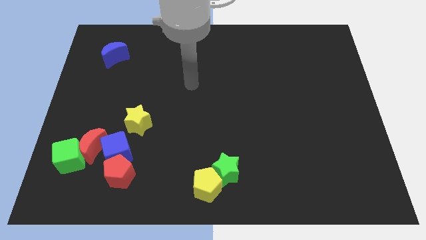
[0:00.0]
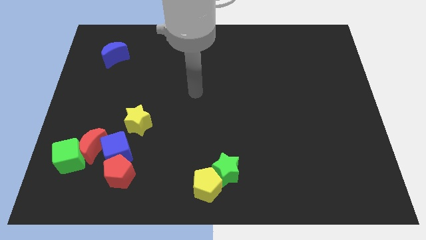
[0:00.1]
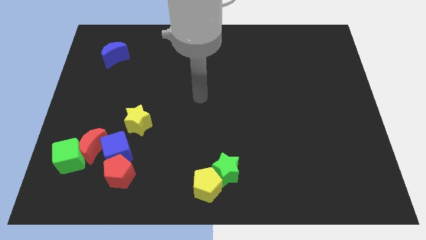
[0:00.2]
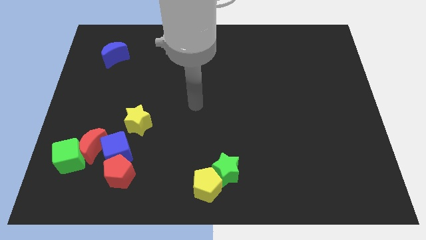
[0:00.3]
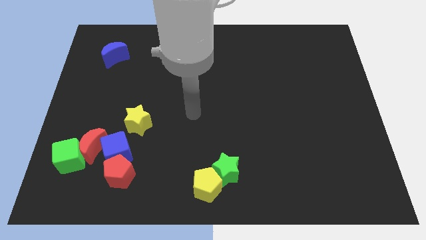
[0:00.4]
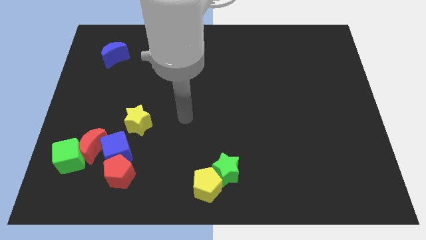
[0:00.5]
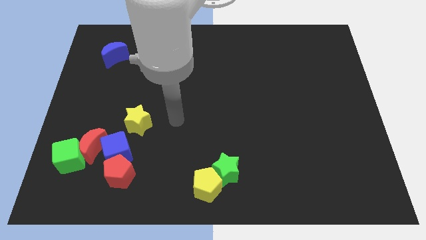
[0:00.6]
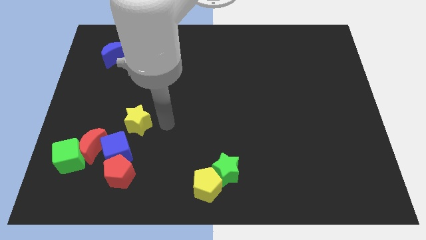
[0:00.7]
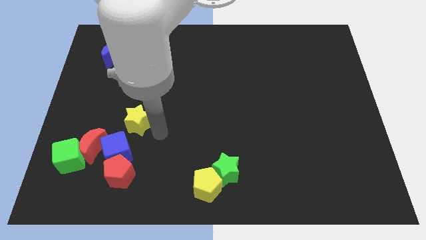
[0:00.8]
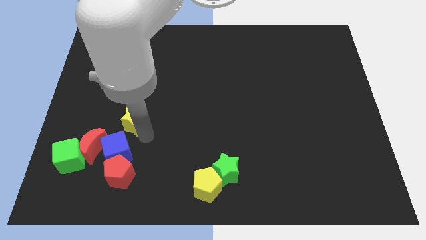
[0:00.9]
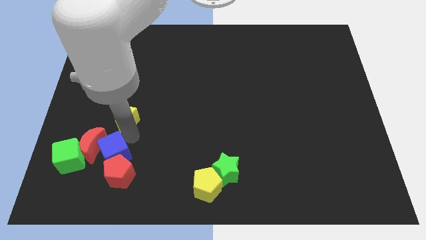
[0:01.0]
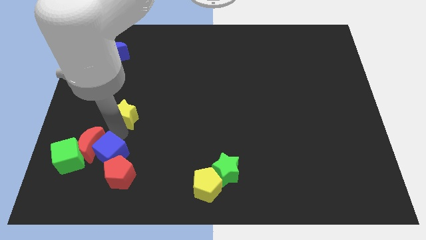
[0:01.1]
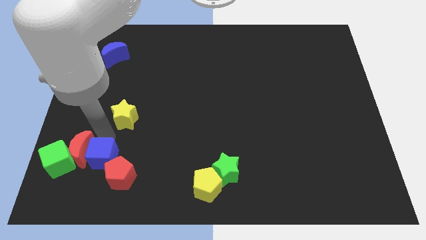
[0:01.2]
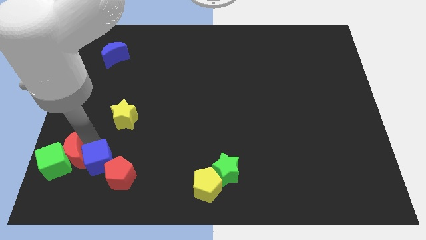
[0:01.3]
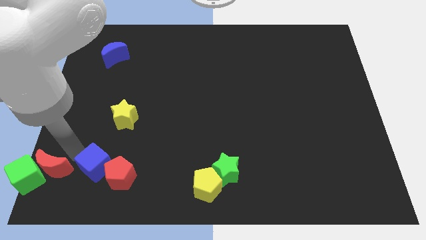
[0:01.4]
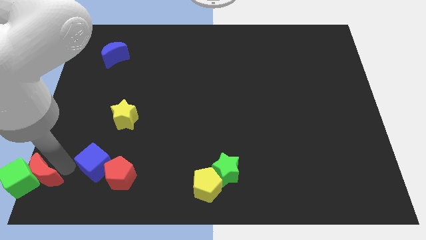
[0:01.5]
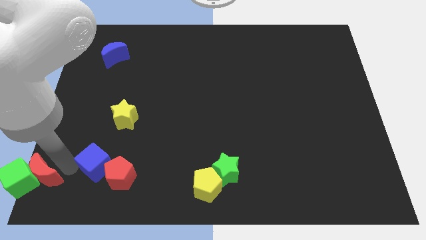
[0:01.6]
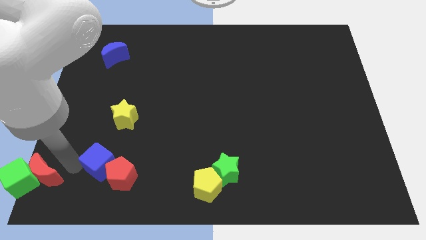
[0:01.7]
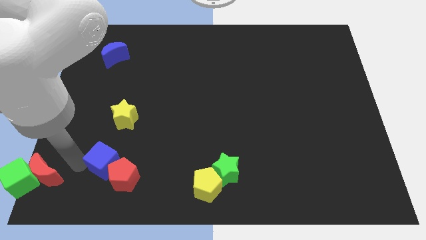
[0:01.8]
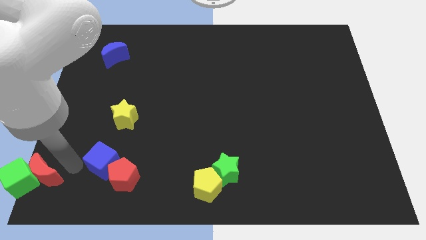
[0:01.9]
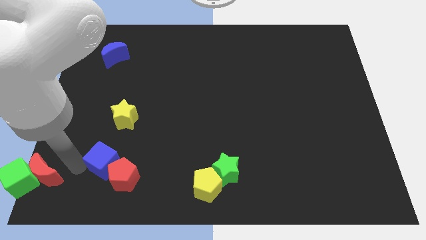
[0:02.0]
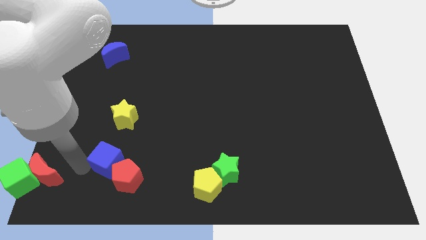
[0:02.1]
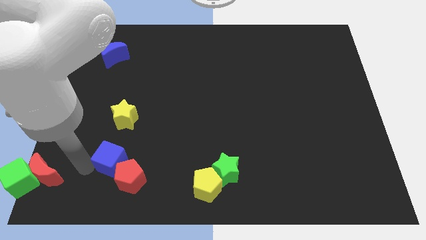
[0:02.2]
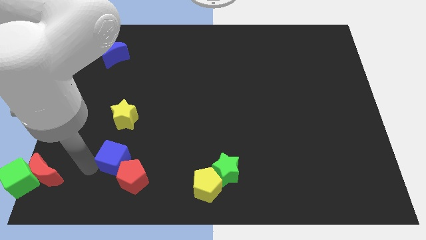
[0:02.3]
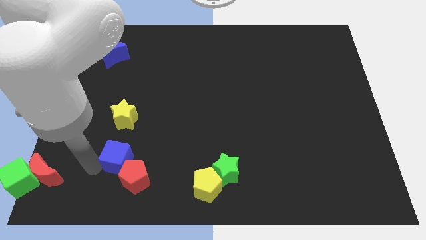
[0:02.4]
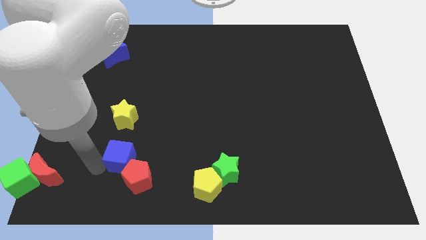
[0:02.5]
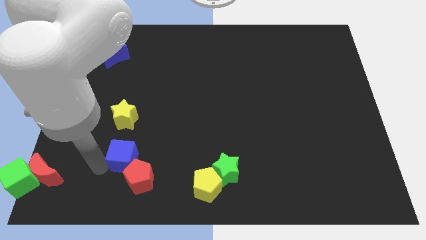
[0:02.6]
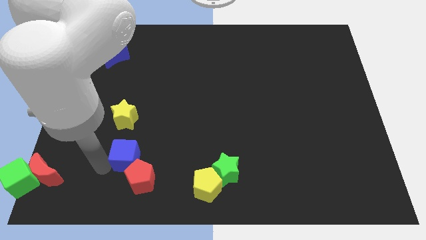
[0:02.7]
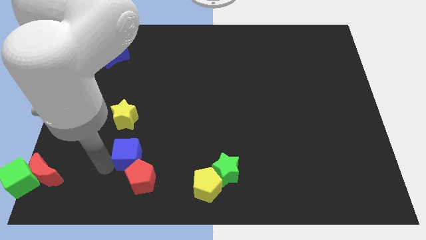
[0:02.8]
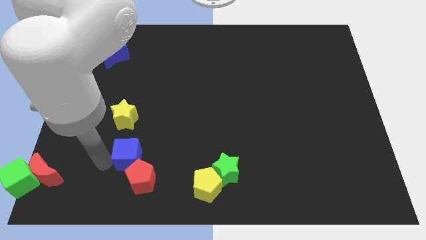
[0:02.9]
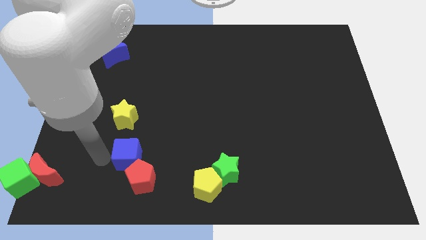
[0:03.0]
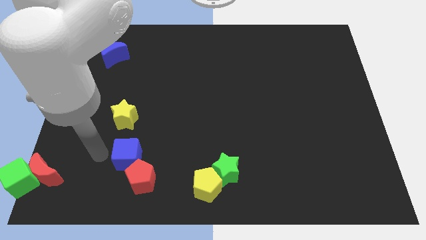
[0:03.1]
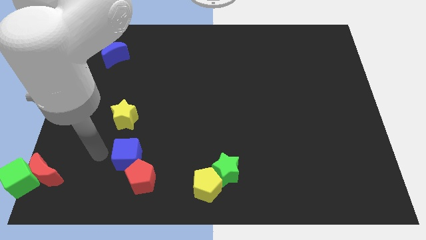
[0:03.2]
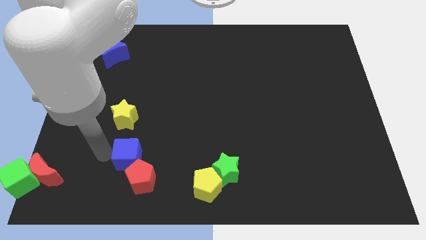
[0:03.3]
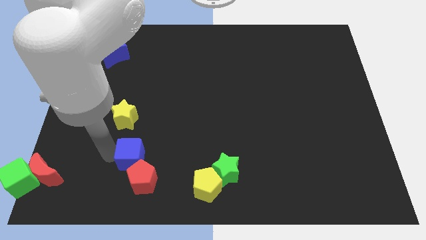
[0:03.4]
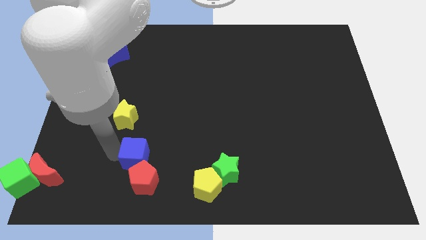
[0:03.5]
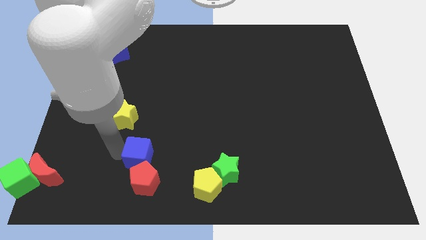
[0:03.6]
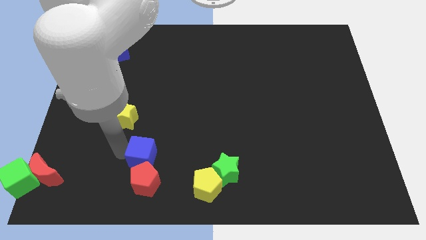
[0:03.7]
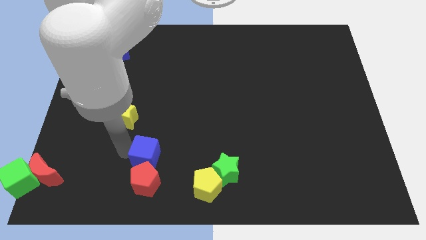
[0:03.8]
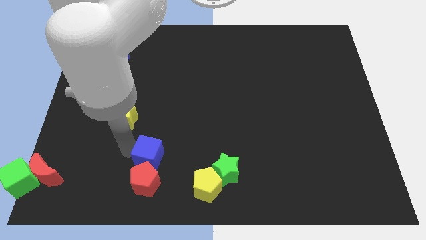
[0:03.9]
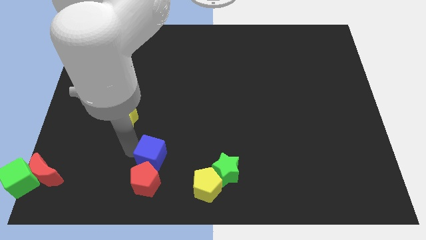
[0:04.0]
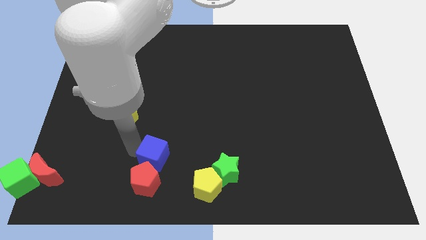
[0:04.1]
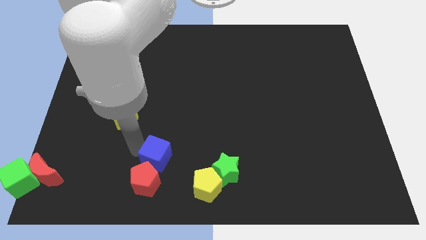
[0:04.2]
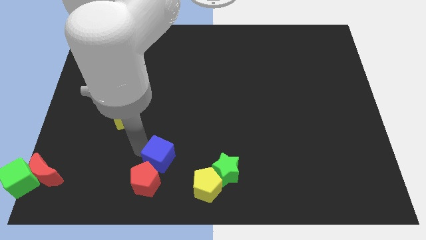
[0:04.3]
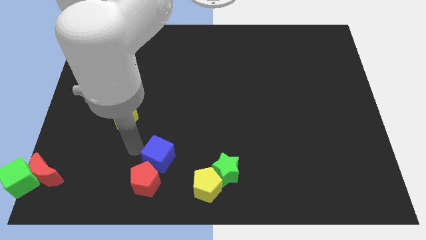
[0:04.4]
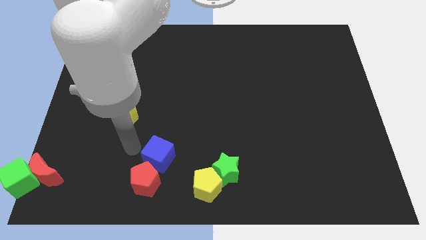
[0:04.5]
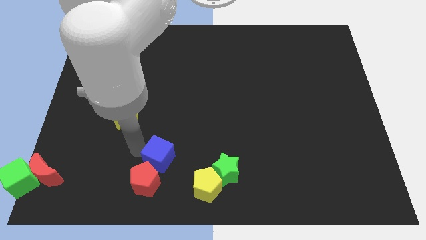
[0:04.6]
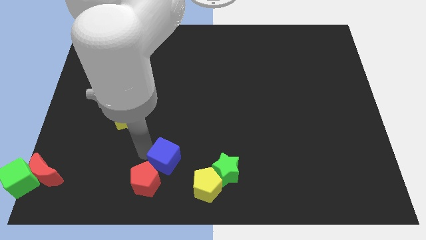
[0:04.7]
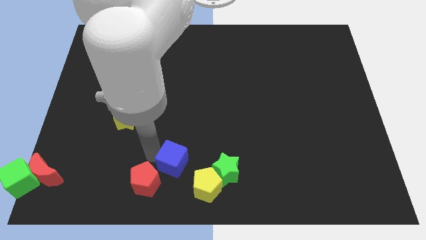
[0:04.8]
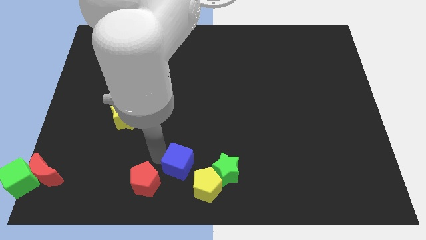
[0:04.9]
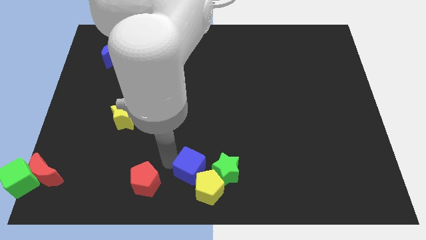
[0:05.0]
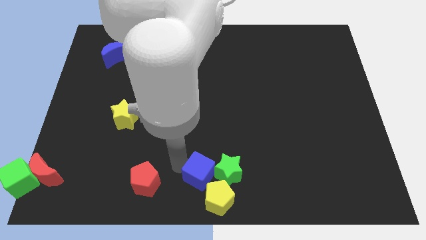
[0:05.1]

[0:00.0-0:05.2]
push the blue cube close to the green star

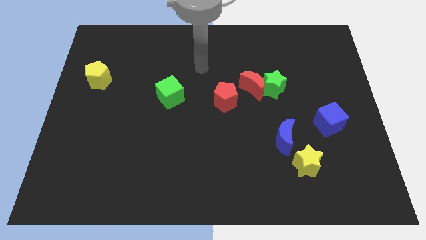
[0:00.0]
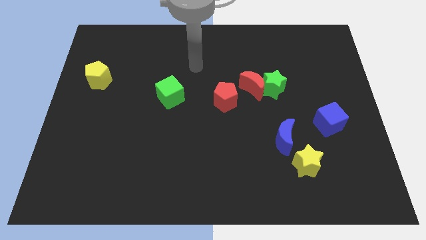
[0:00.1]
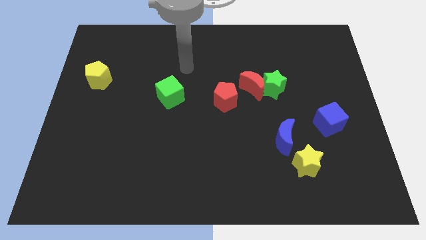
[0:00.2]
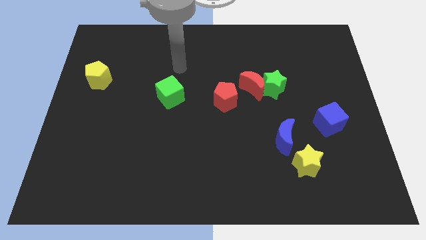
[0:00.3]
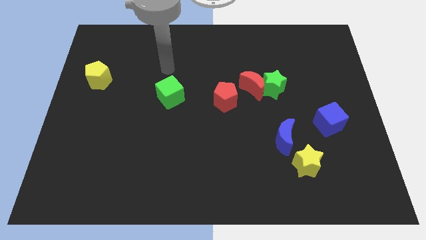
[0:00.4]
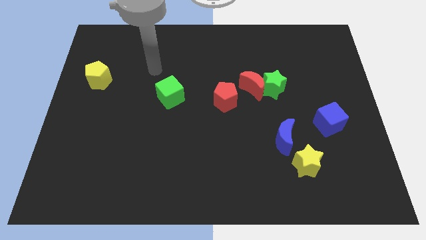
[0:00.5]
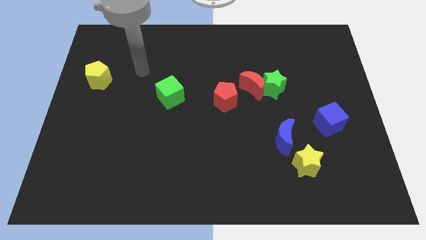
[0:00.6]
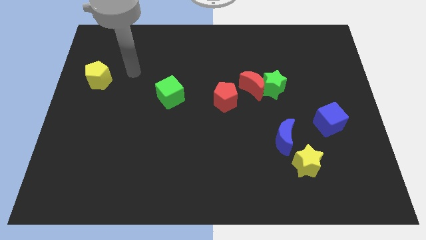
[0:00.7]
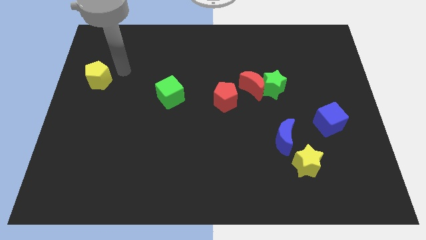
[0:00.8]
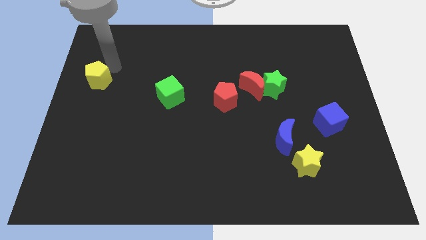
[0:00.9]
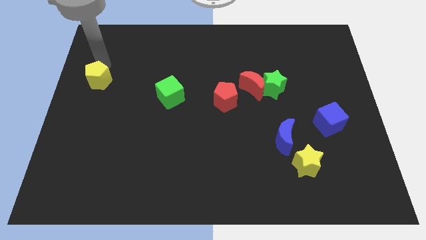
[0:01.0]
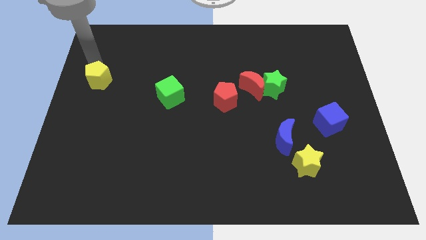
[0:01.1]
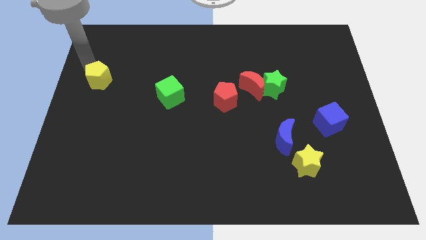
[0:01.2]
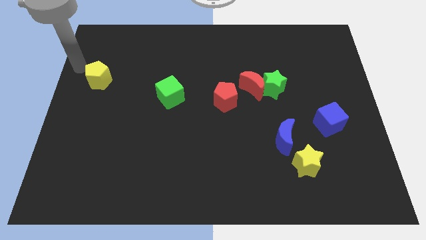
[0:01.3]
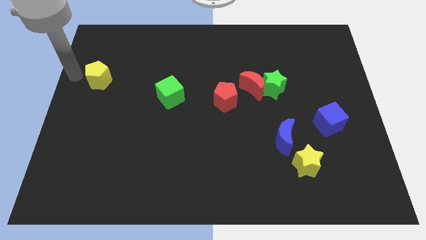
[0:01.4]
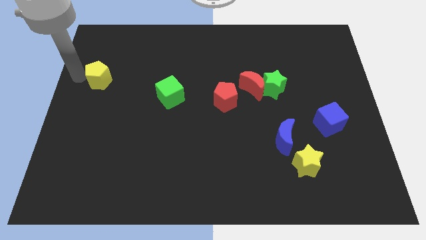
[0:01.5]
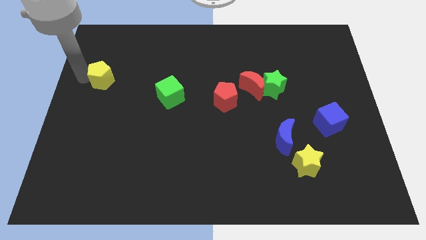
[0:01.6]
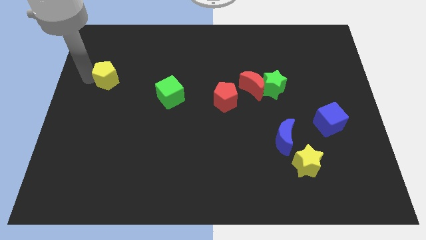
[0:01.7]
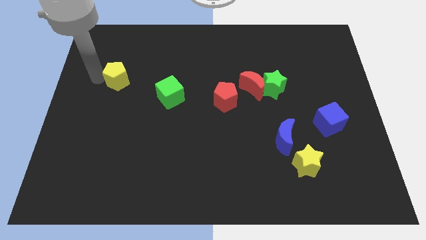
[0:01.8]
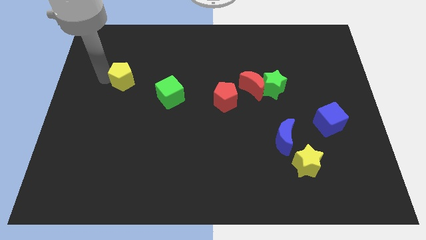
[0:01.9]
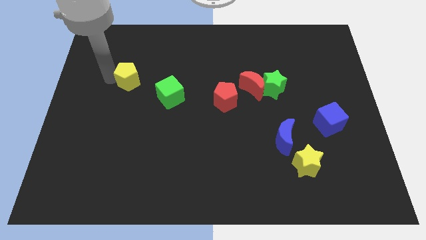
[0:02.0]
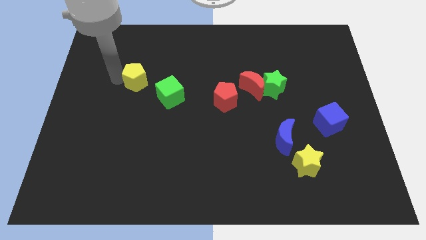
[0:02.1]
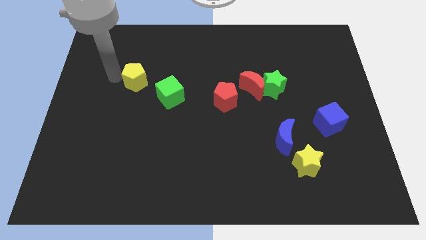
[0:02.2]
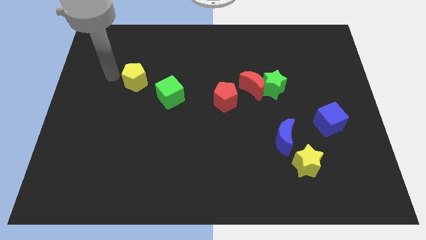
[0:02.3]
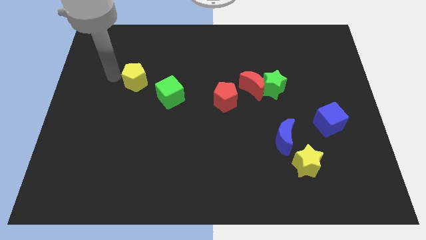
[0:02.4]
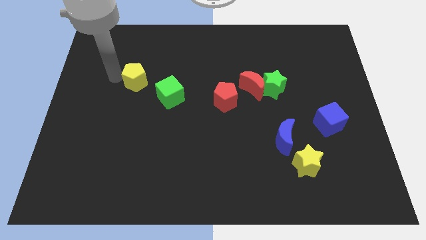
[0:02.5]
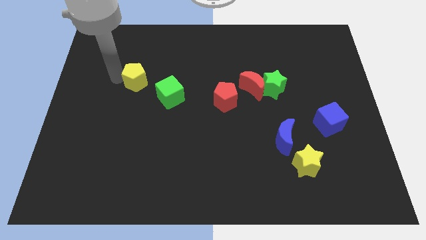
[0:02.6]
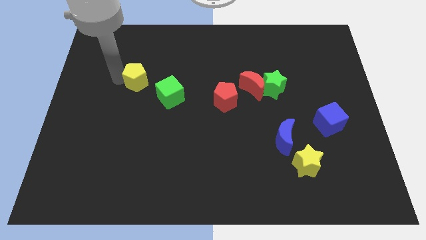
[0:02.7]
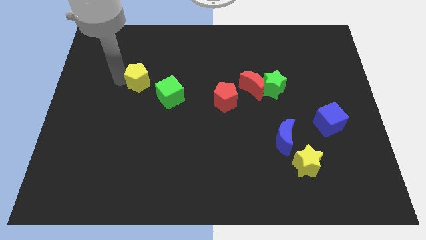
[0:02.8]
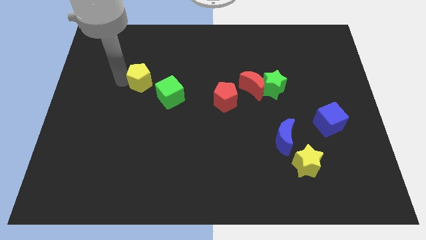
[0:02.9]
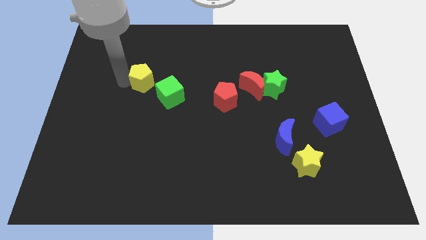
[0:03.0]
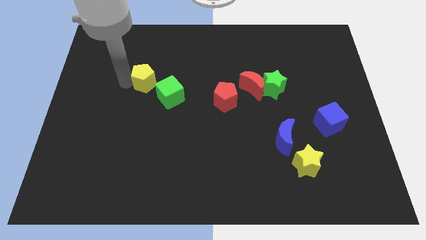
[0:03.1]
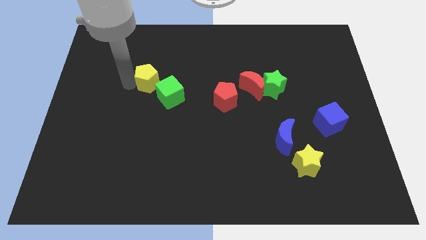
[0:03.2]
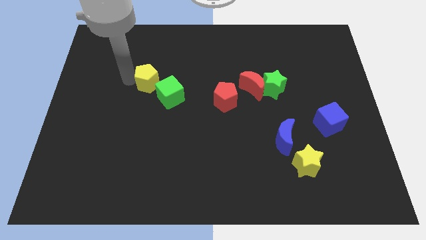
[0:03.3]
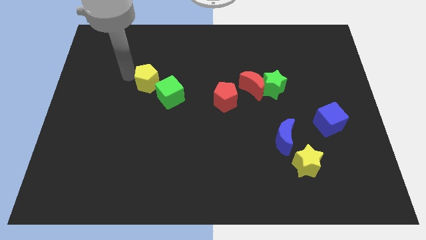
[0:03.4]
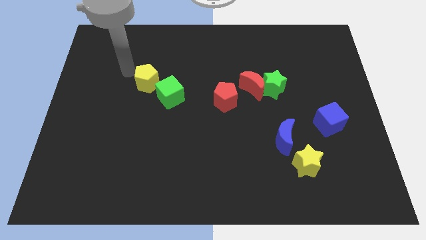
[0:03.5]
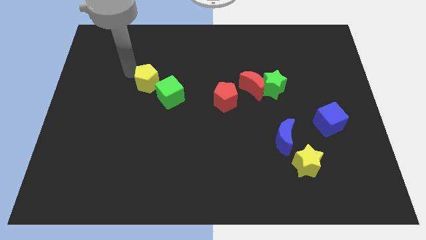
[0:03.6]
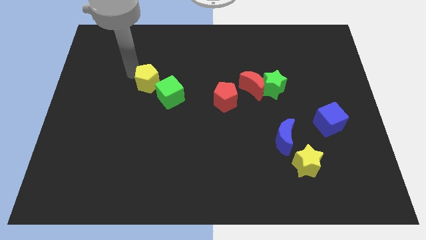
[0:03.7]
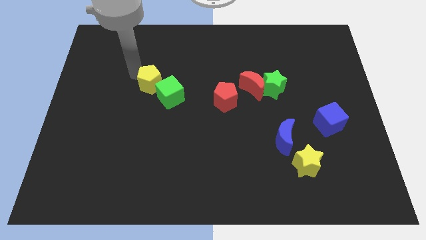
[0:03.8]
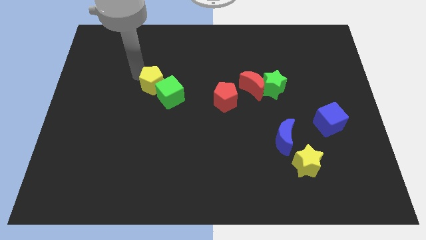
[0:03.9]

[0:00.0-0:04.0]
put the yellow pentagon towards the green cube
